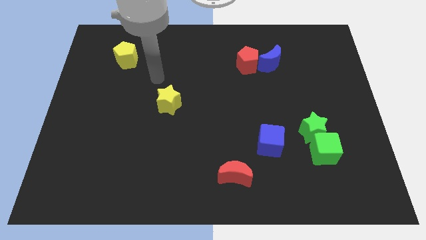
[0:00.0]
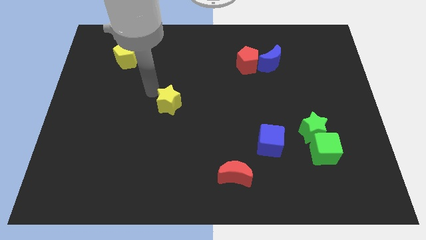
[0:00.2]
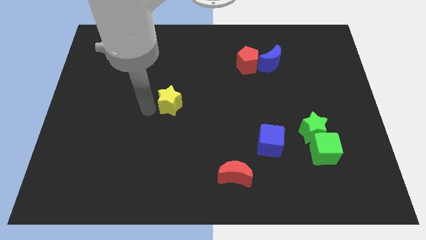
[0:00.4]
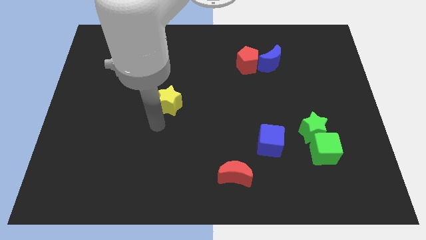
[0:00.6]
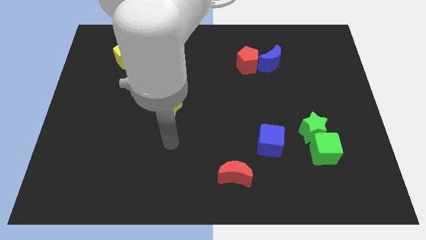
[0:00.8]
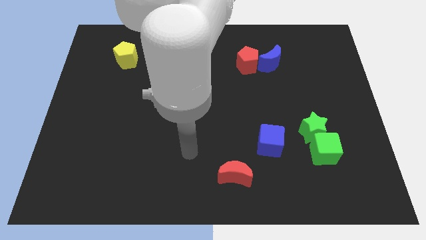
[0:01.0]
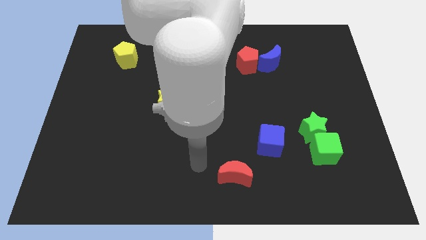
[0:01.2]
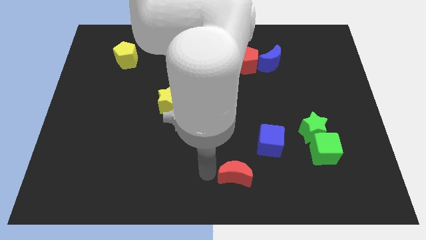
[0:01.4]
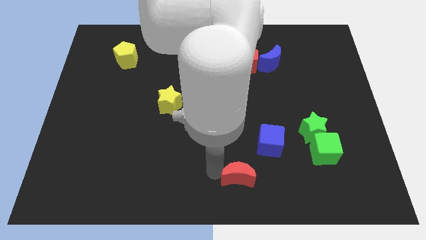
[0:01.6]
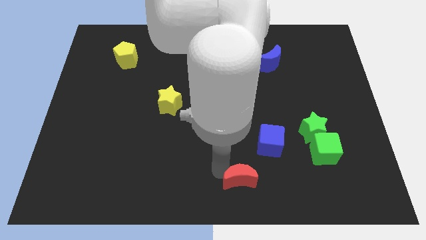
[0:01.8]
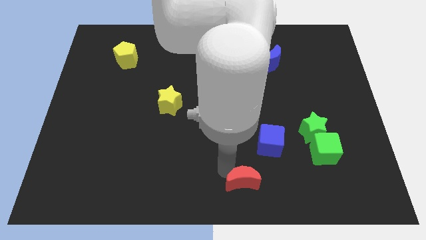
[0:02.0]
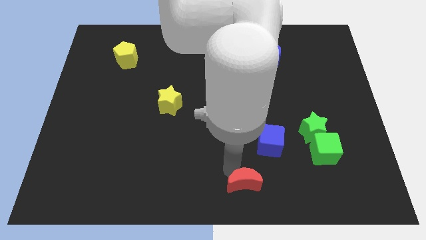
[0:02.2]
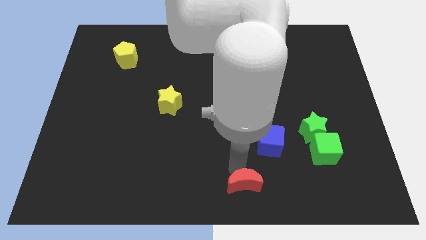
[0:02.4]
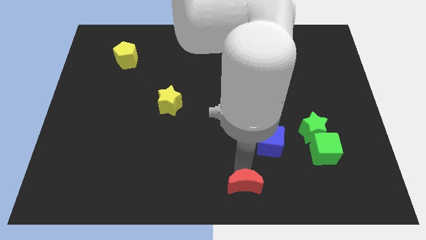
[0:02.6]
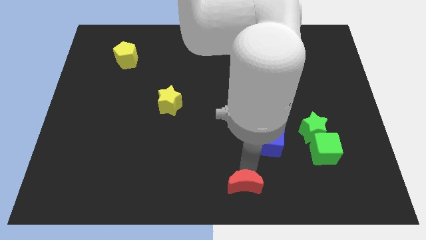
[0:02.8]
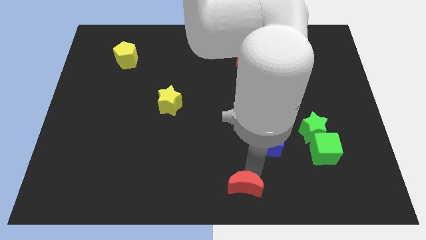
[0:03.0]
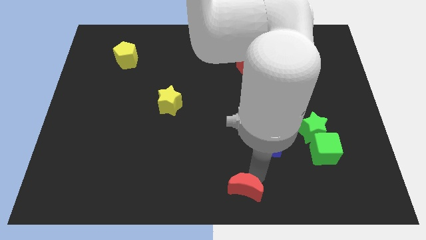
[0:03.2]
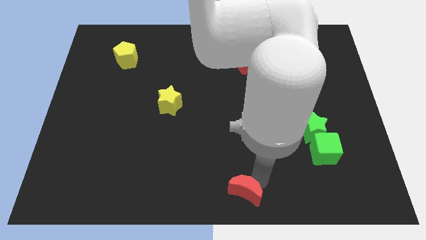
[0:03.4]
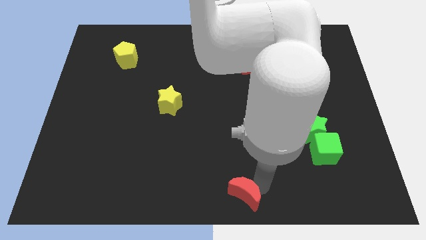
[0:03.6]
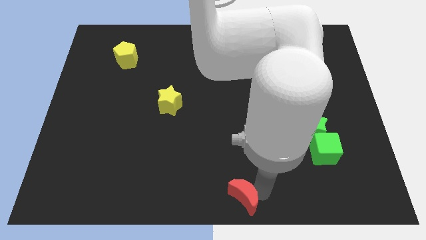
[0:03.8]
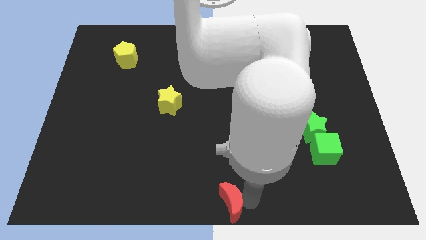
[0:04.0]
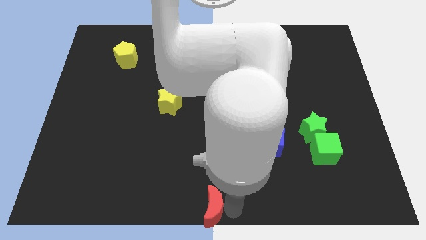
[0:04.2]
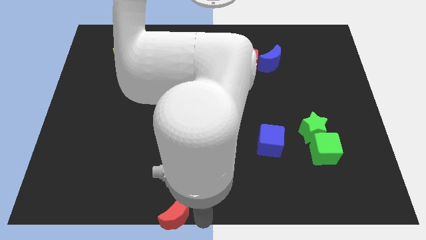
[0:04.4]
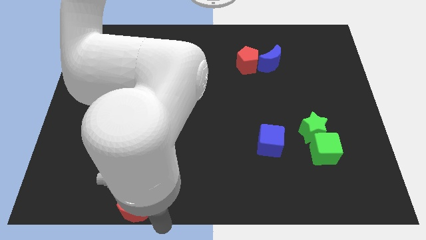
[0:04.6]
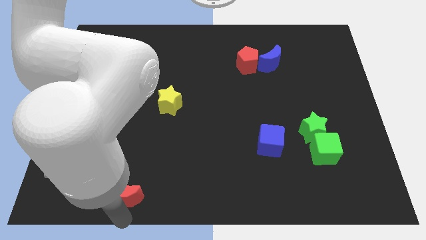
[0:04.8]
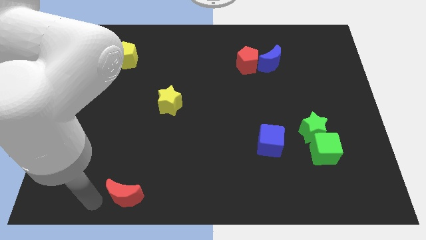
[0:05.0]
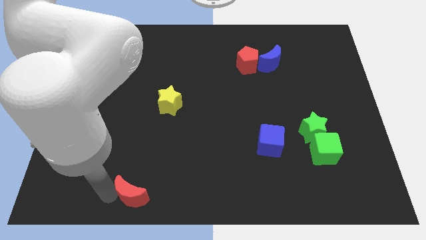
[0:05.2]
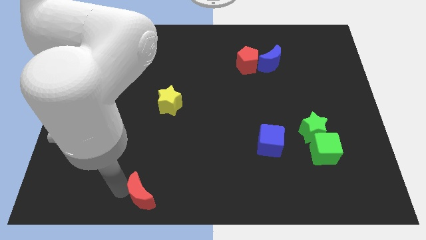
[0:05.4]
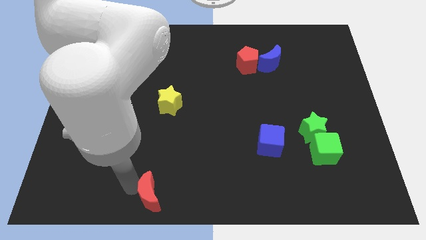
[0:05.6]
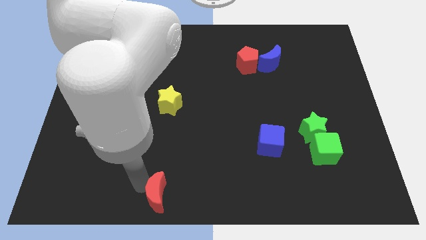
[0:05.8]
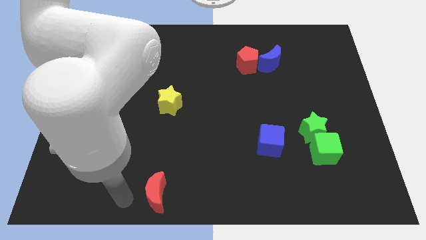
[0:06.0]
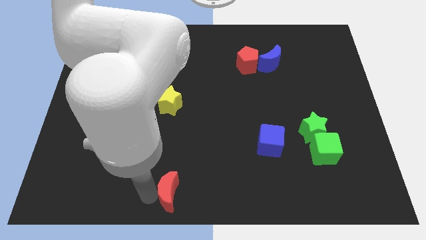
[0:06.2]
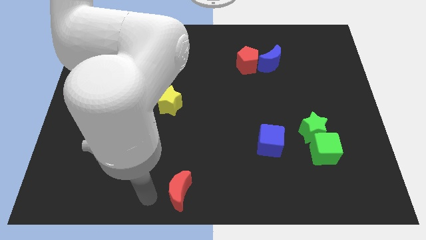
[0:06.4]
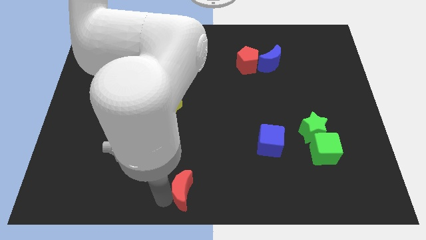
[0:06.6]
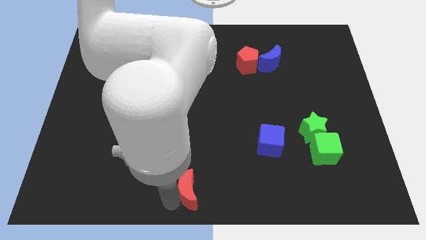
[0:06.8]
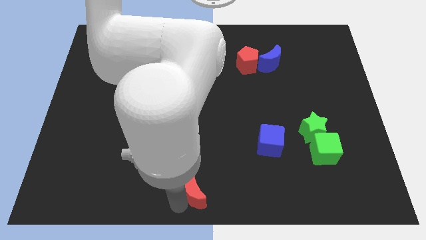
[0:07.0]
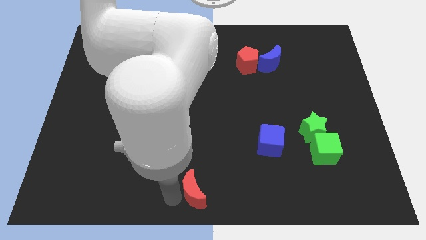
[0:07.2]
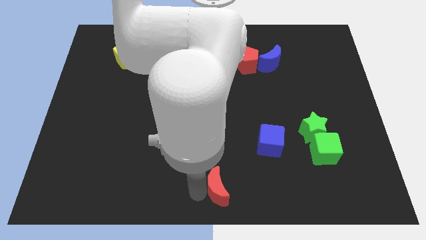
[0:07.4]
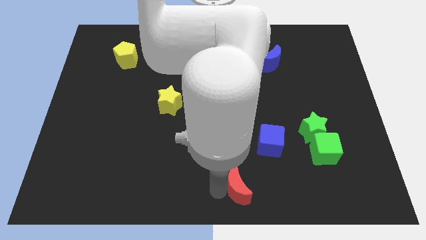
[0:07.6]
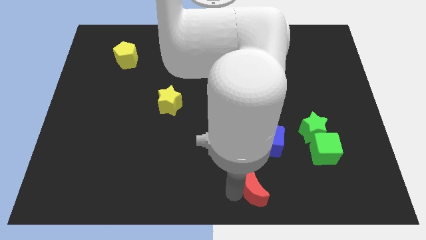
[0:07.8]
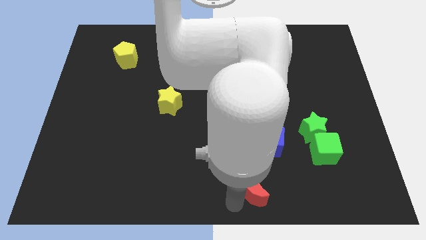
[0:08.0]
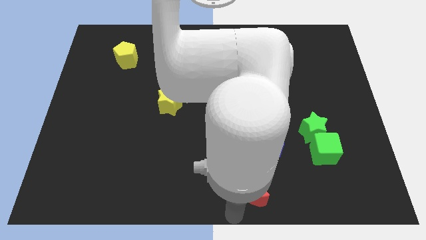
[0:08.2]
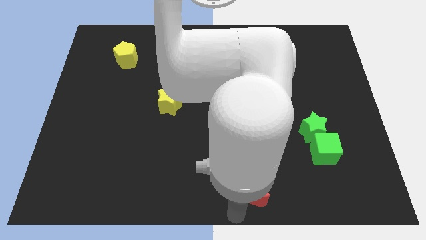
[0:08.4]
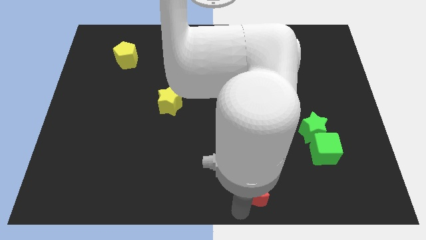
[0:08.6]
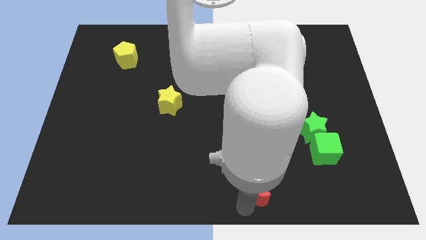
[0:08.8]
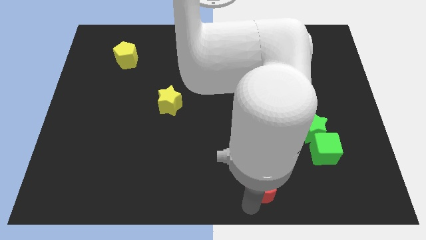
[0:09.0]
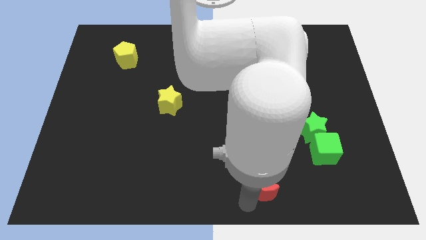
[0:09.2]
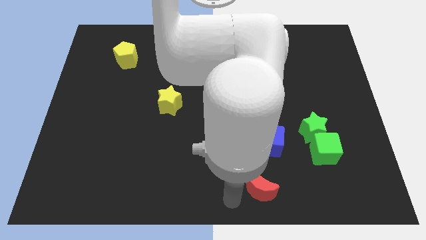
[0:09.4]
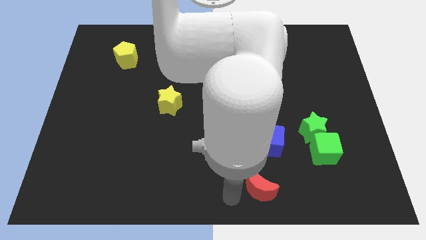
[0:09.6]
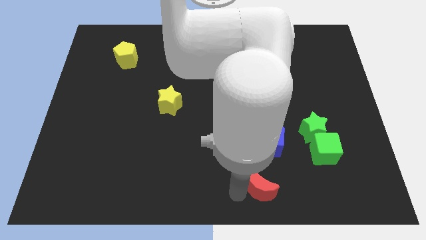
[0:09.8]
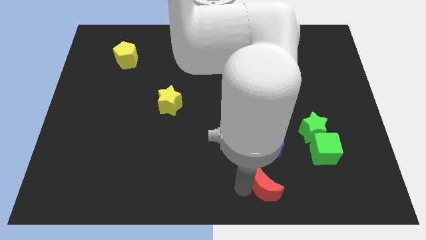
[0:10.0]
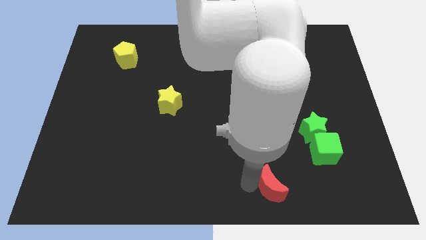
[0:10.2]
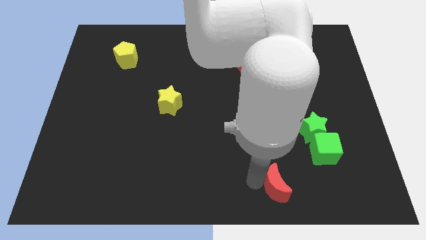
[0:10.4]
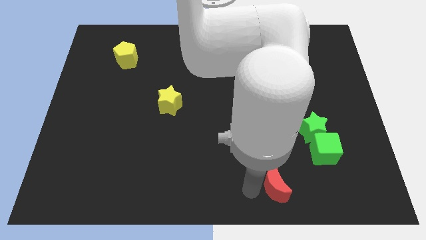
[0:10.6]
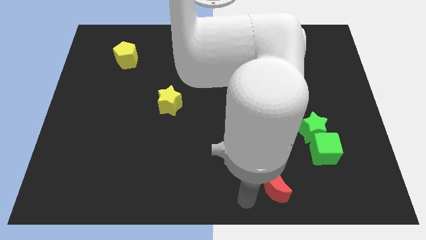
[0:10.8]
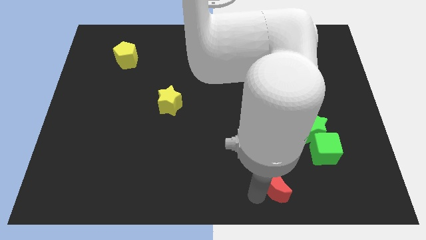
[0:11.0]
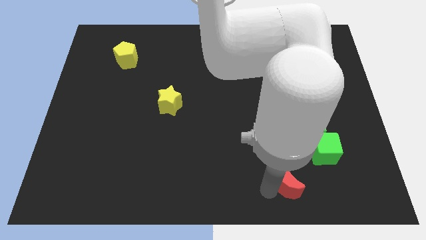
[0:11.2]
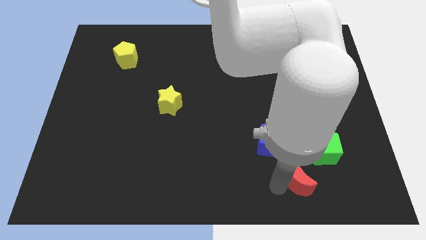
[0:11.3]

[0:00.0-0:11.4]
push the red moon below the green star

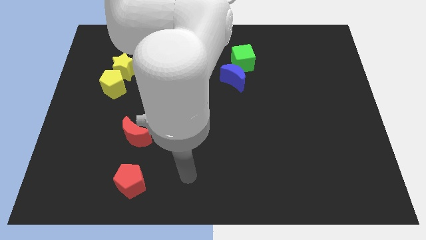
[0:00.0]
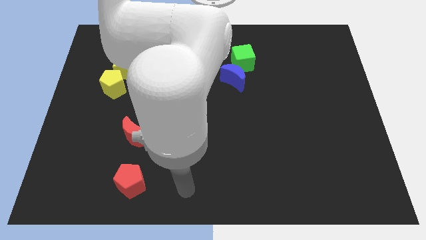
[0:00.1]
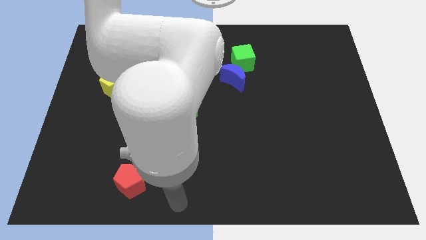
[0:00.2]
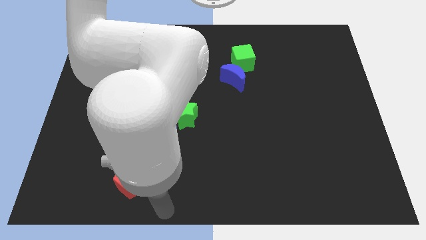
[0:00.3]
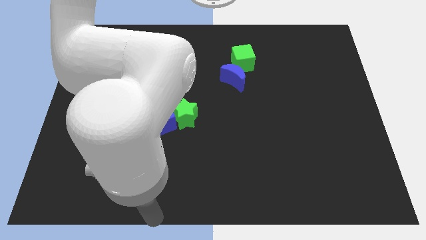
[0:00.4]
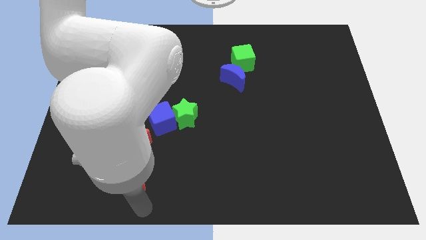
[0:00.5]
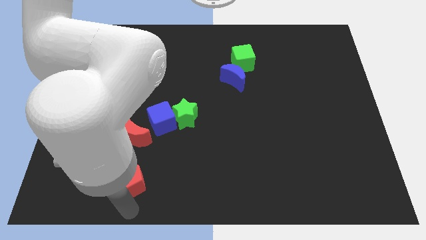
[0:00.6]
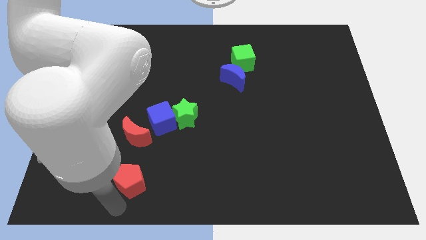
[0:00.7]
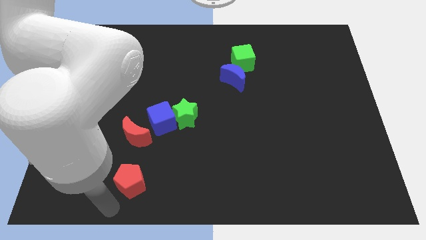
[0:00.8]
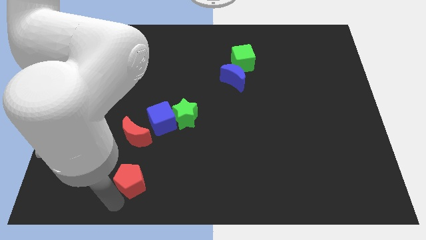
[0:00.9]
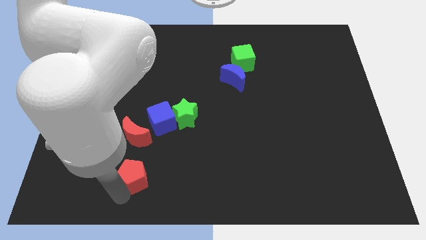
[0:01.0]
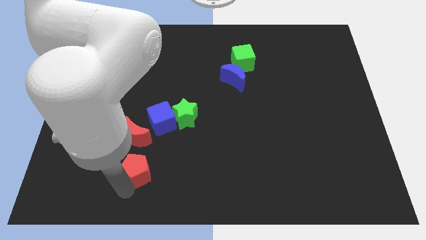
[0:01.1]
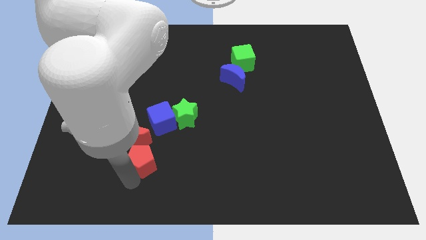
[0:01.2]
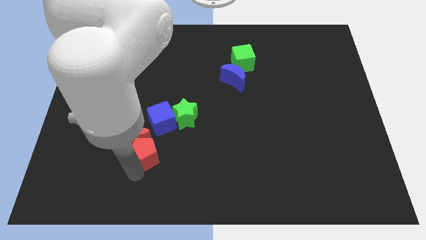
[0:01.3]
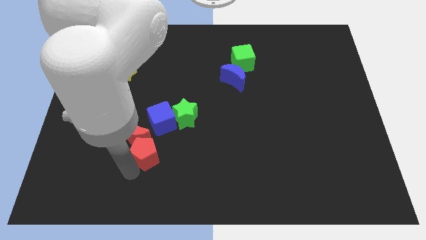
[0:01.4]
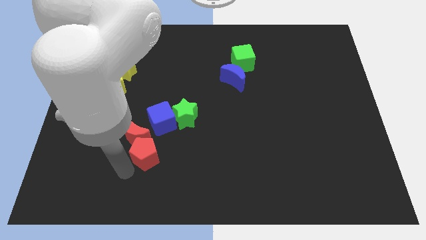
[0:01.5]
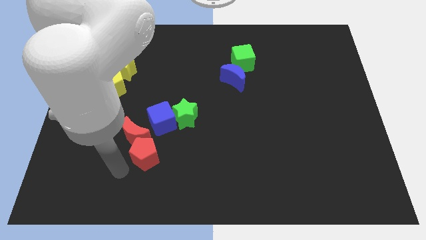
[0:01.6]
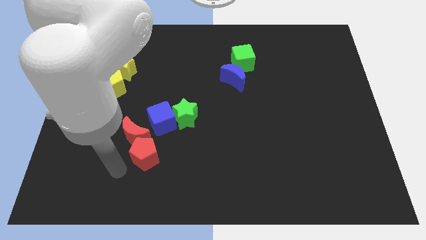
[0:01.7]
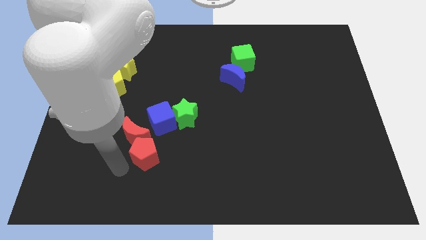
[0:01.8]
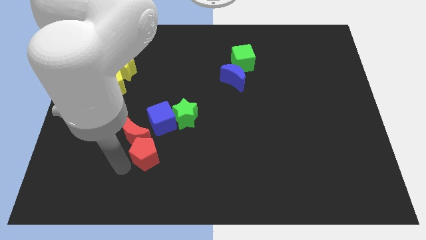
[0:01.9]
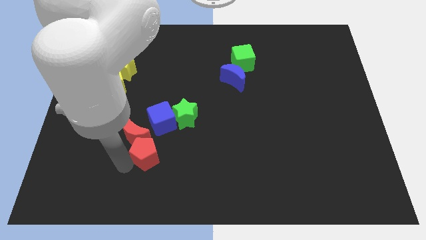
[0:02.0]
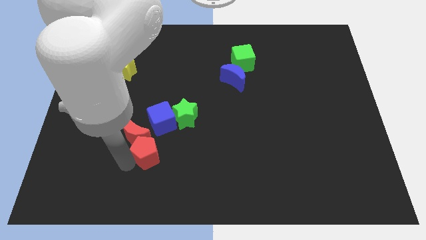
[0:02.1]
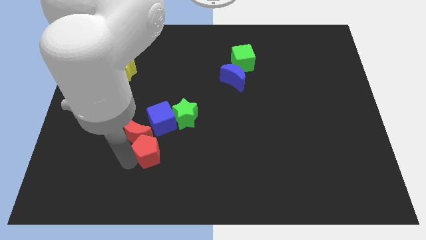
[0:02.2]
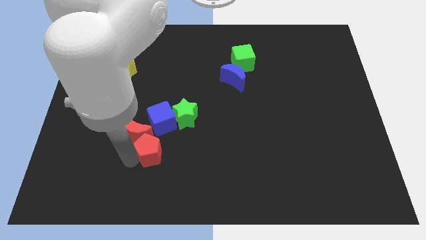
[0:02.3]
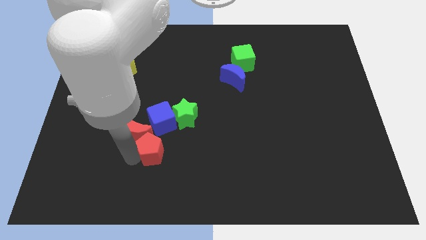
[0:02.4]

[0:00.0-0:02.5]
move the red pentagon just right of the red moon
